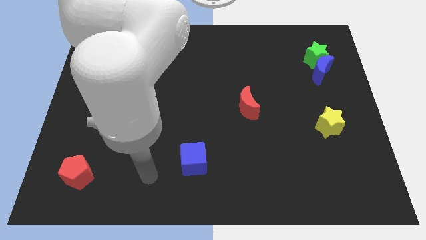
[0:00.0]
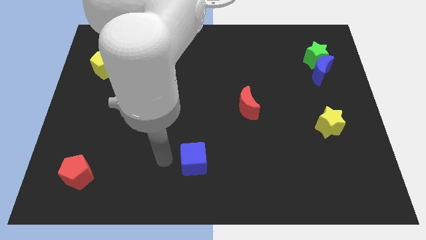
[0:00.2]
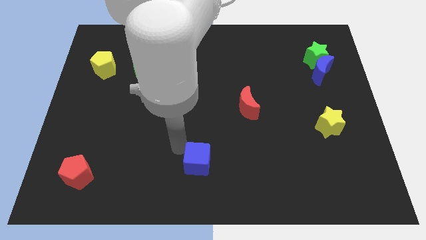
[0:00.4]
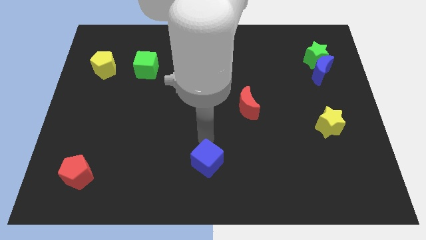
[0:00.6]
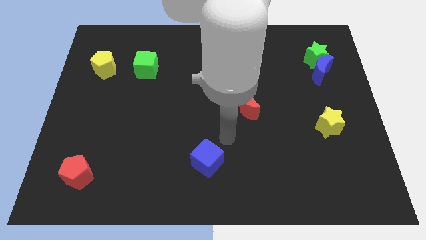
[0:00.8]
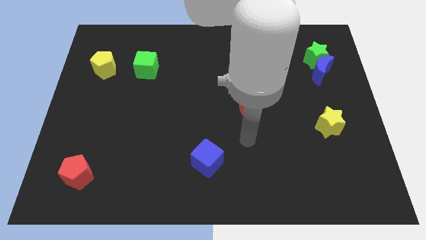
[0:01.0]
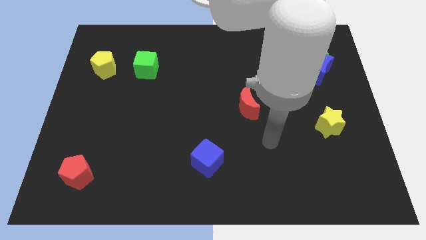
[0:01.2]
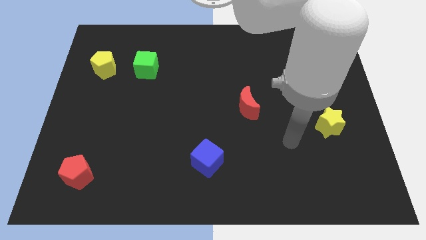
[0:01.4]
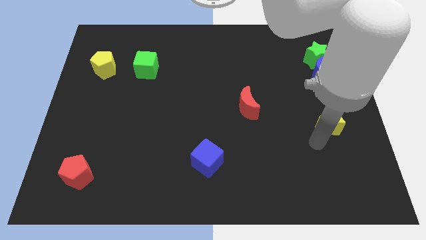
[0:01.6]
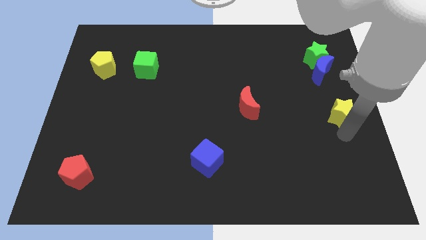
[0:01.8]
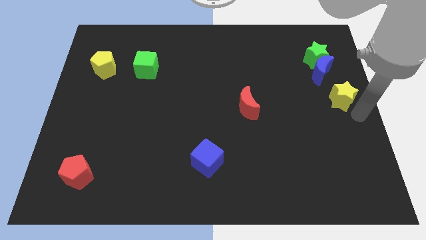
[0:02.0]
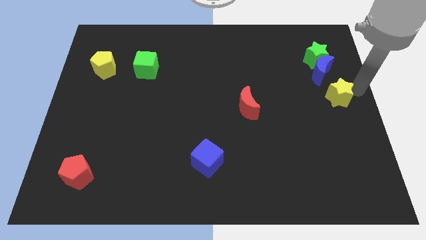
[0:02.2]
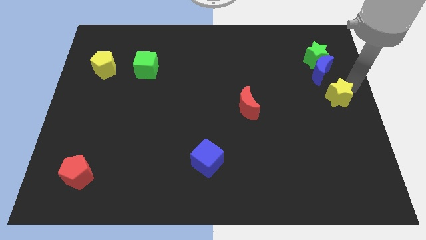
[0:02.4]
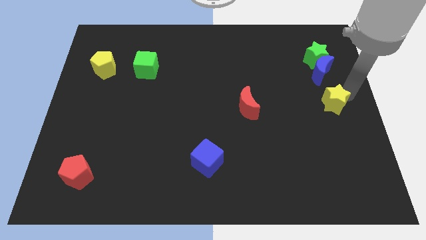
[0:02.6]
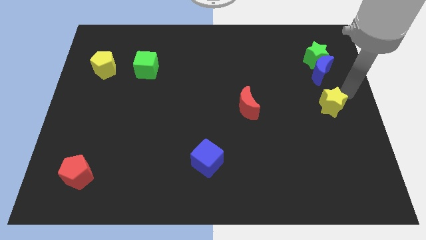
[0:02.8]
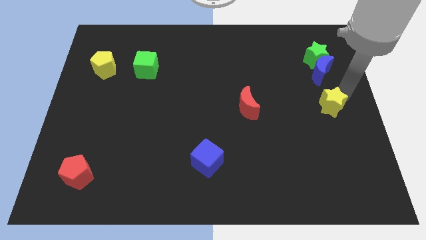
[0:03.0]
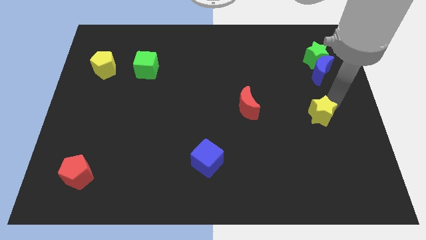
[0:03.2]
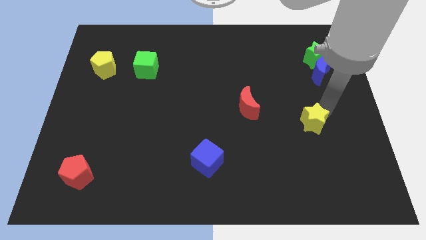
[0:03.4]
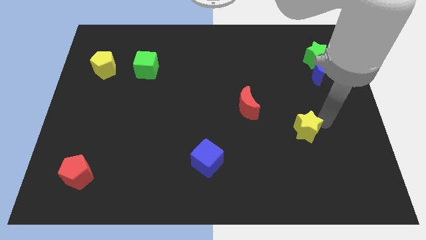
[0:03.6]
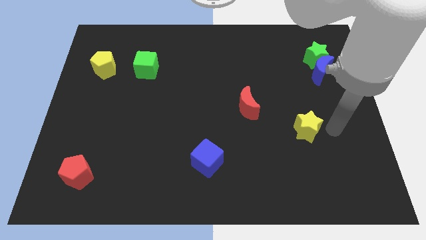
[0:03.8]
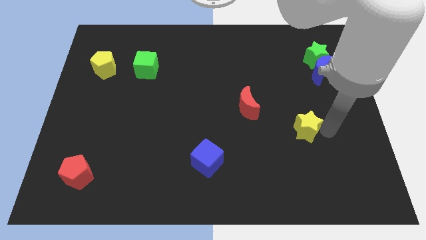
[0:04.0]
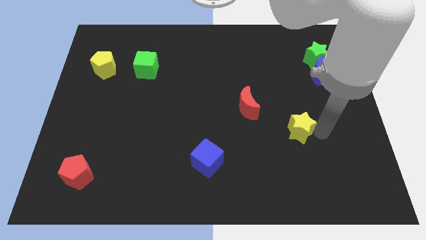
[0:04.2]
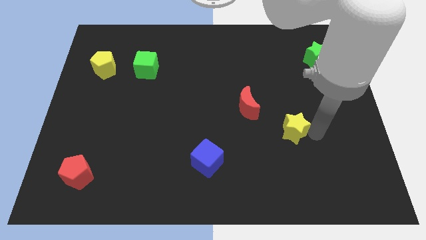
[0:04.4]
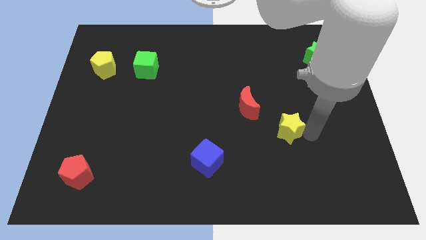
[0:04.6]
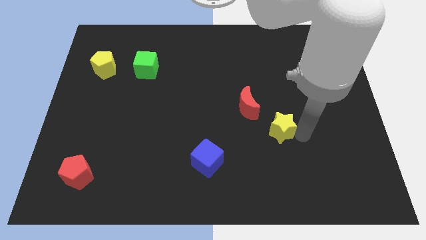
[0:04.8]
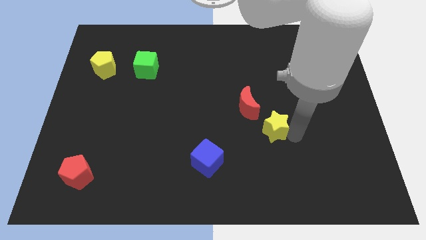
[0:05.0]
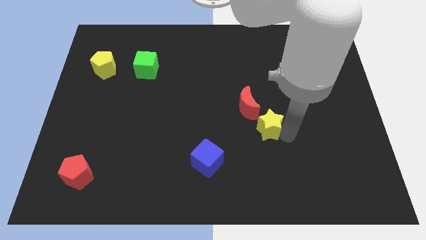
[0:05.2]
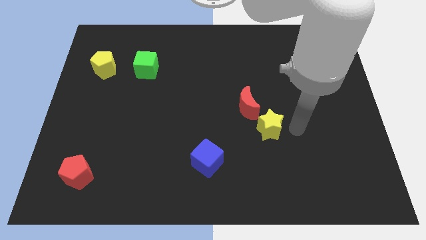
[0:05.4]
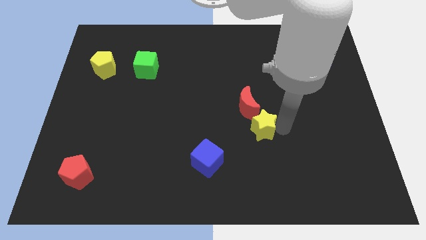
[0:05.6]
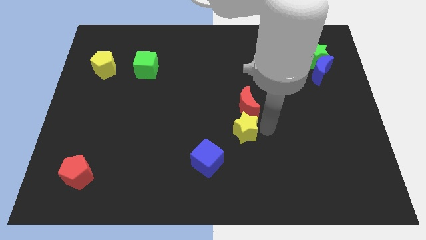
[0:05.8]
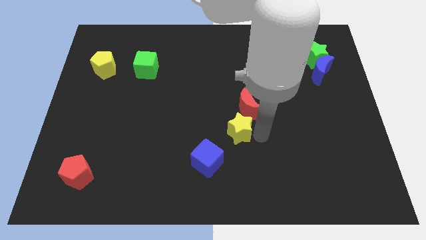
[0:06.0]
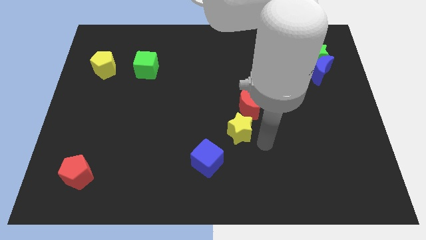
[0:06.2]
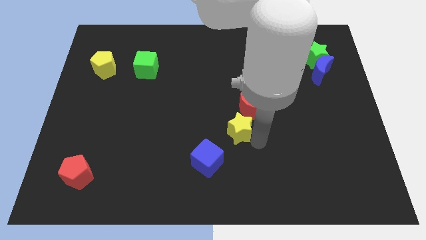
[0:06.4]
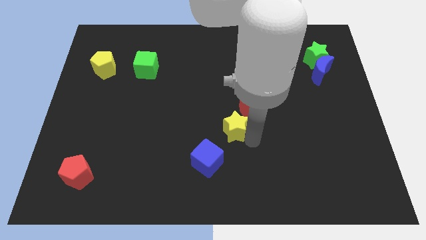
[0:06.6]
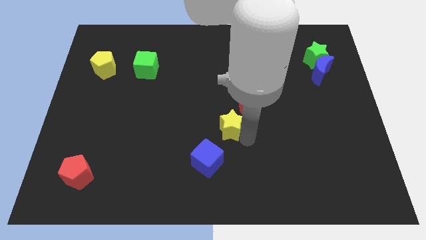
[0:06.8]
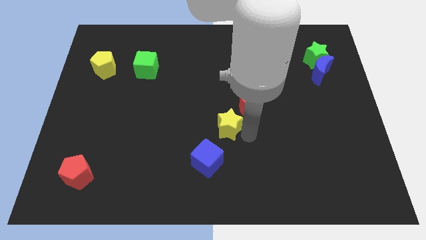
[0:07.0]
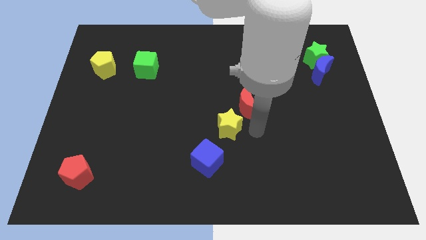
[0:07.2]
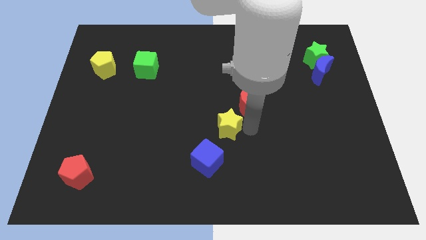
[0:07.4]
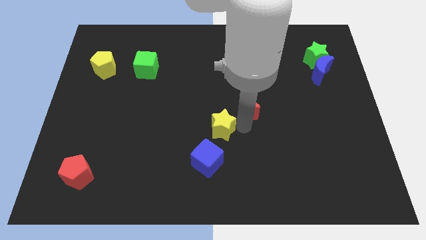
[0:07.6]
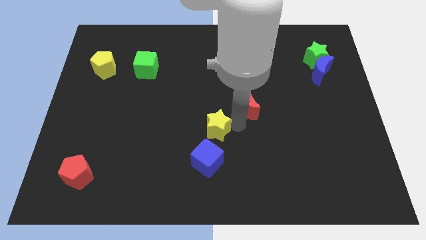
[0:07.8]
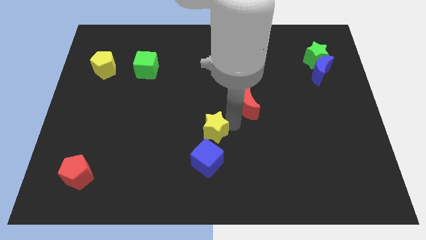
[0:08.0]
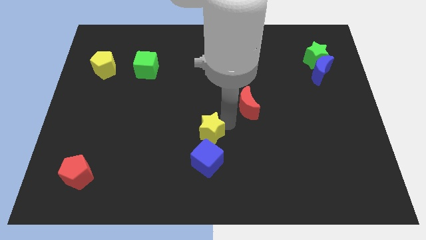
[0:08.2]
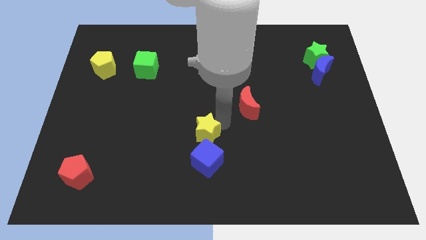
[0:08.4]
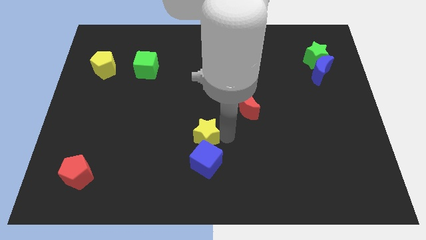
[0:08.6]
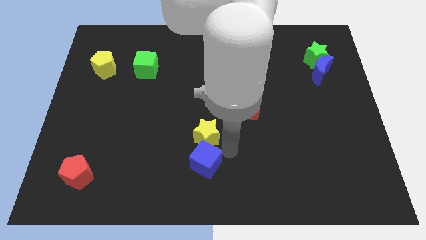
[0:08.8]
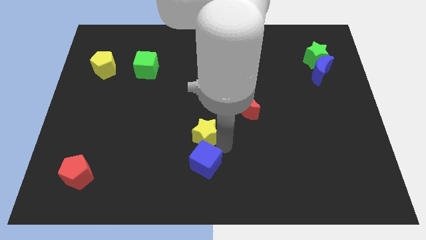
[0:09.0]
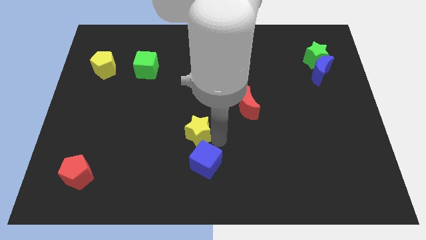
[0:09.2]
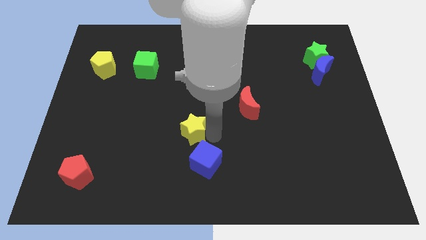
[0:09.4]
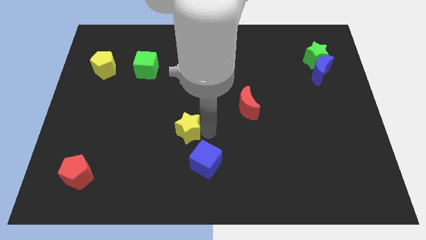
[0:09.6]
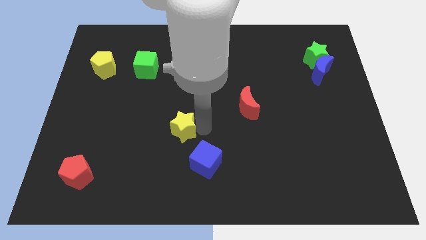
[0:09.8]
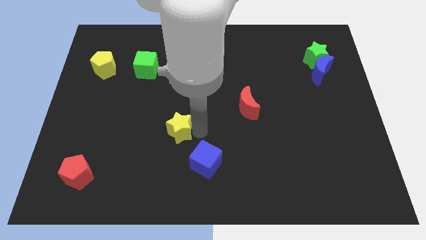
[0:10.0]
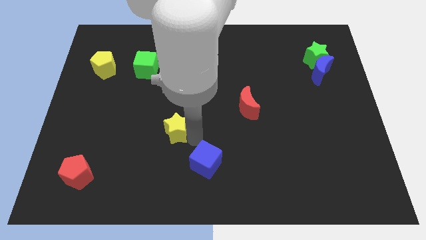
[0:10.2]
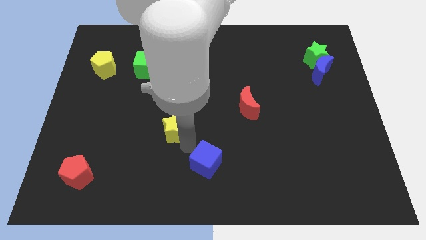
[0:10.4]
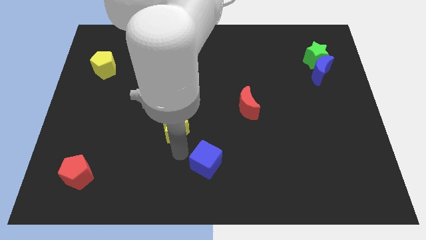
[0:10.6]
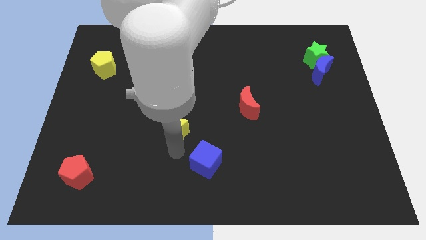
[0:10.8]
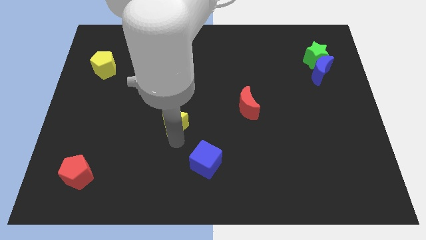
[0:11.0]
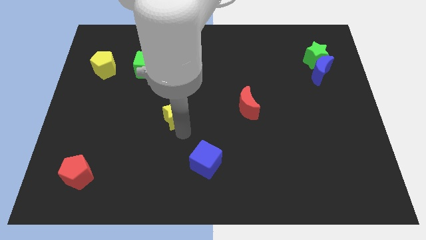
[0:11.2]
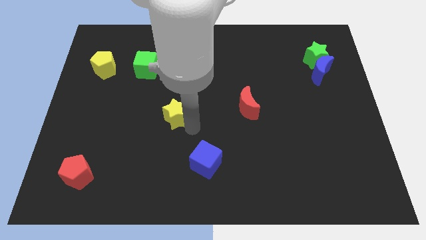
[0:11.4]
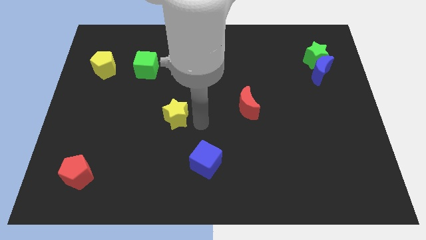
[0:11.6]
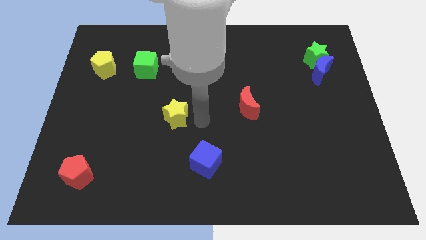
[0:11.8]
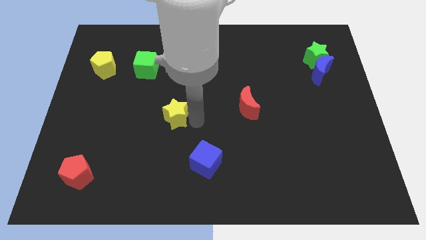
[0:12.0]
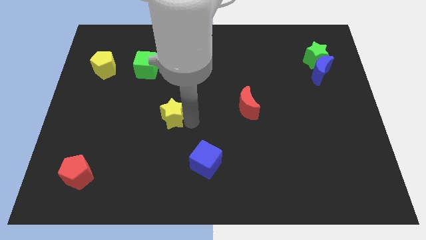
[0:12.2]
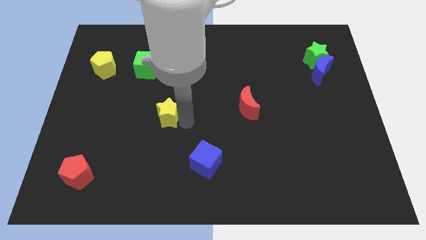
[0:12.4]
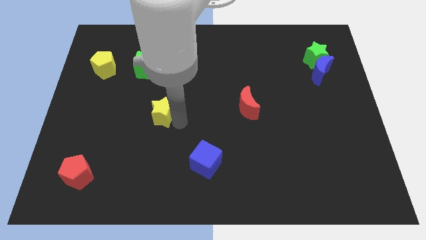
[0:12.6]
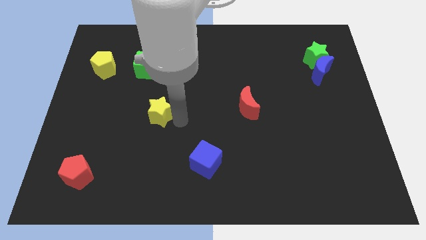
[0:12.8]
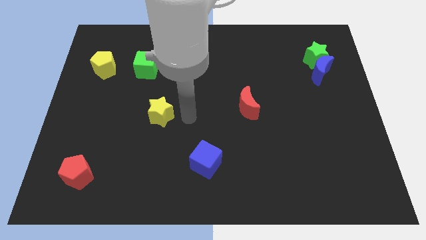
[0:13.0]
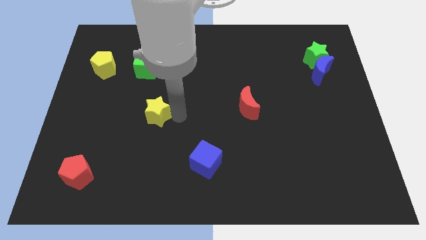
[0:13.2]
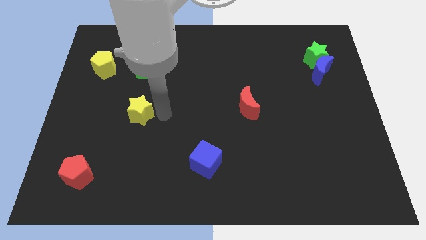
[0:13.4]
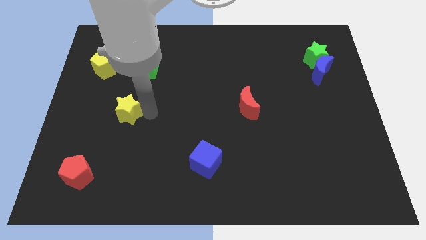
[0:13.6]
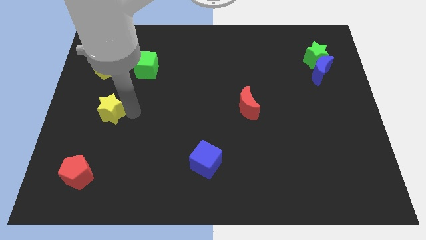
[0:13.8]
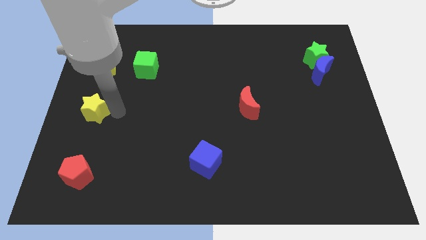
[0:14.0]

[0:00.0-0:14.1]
push the yellow star to the left side of the board
